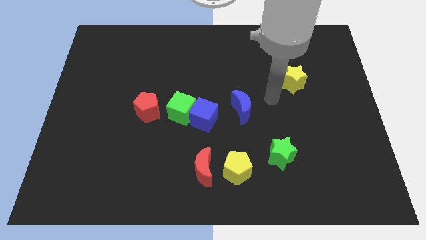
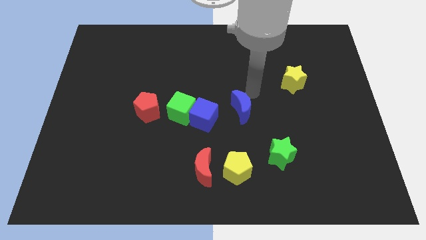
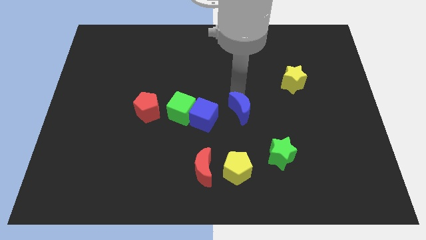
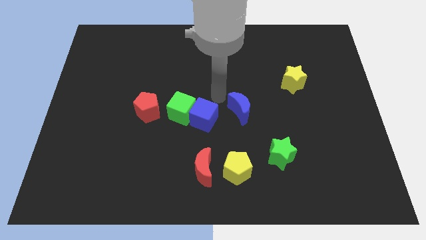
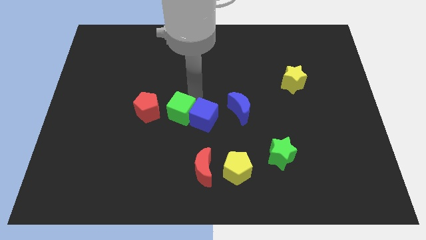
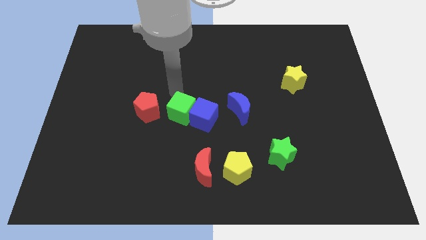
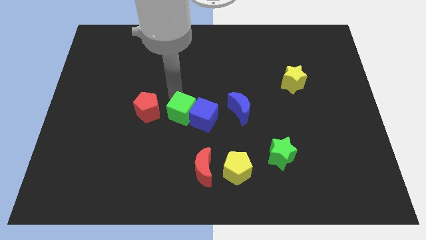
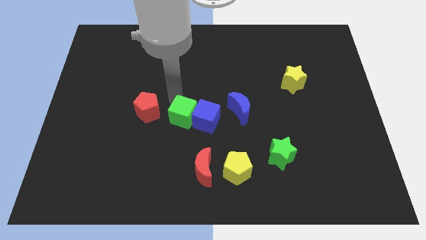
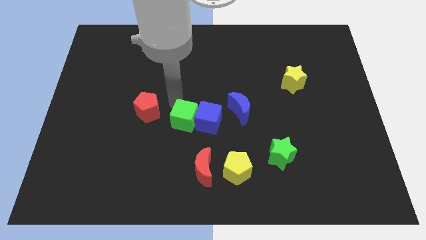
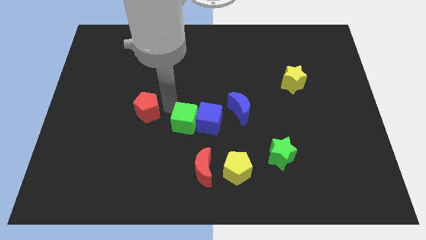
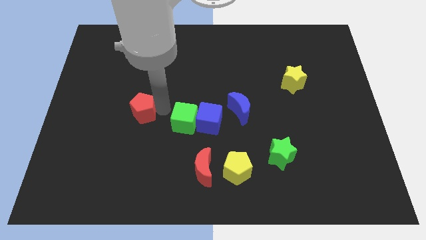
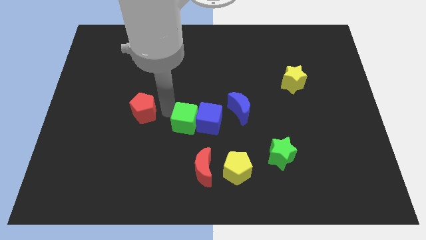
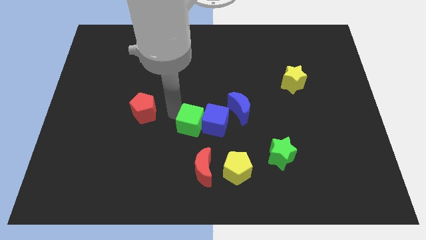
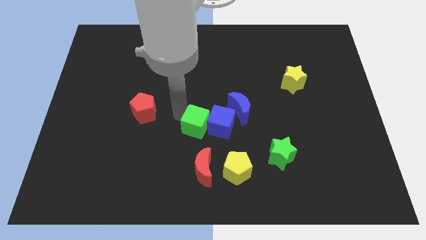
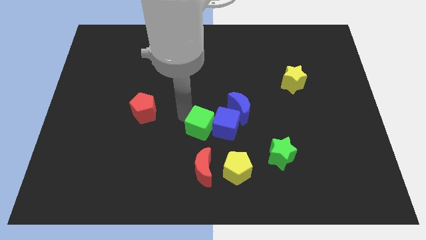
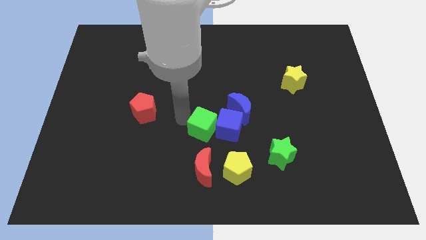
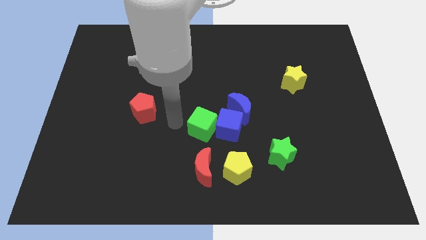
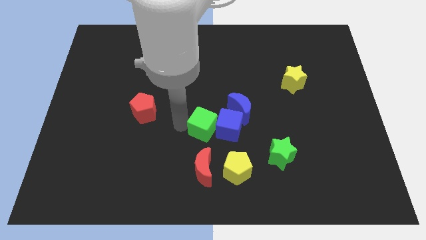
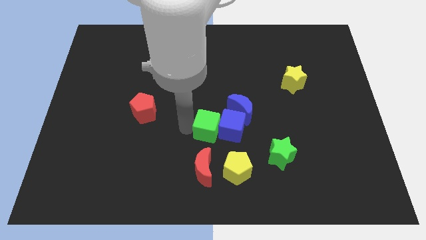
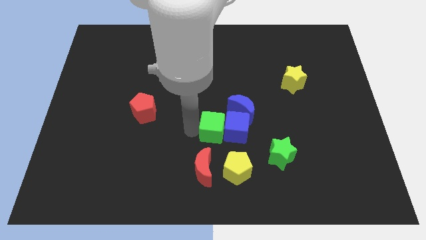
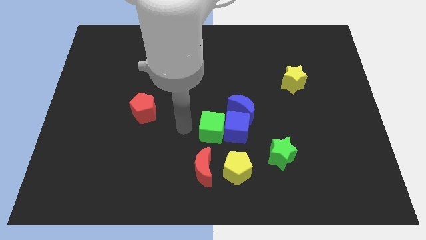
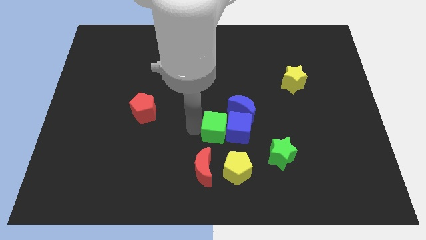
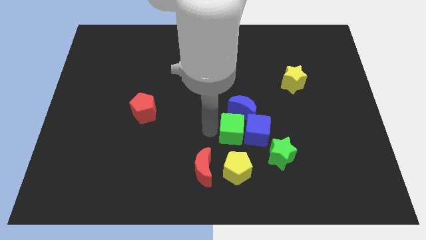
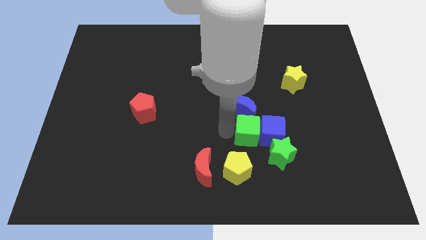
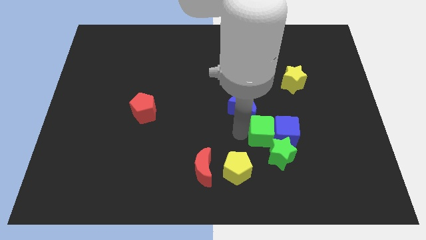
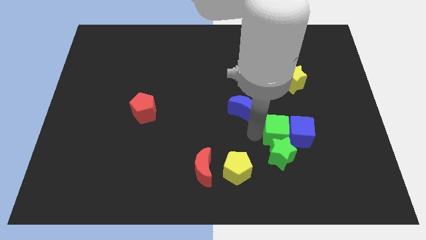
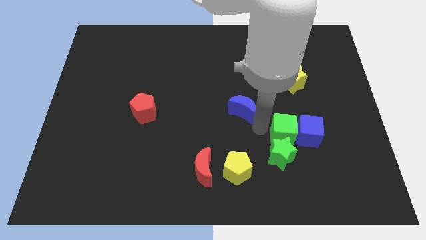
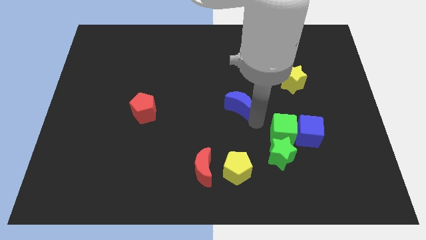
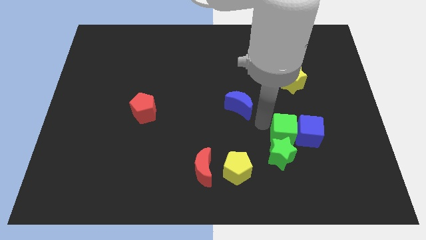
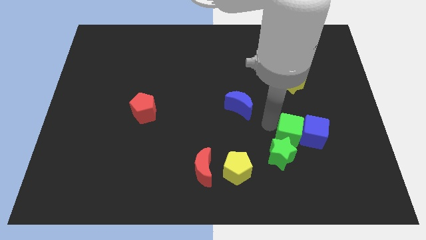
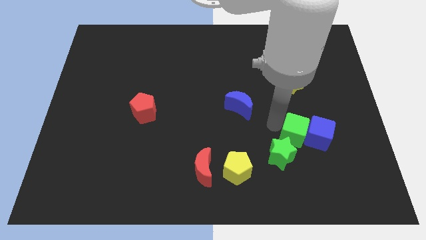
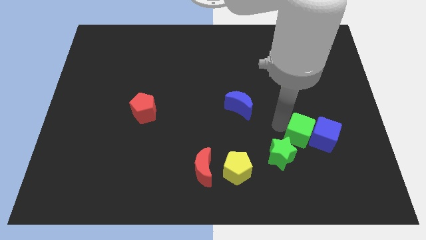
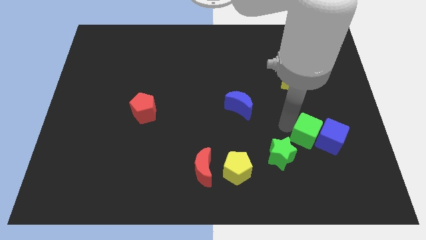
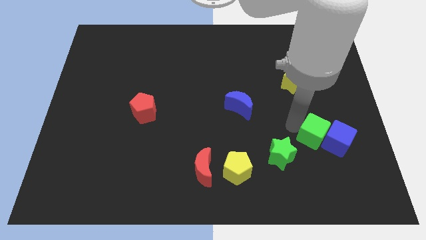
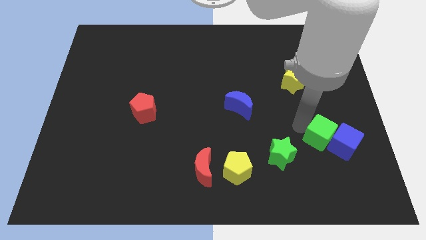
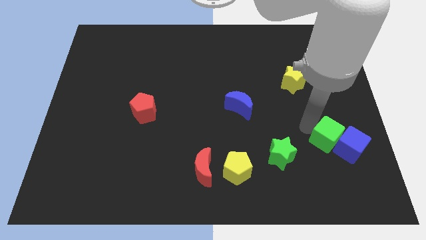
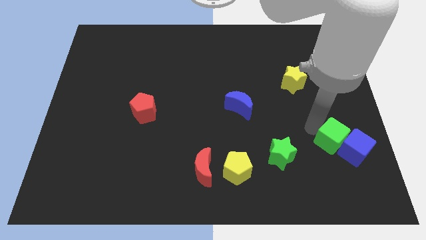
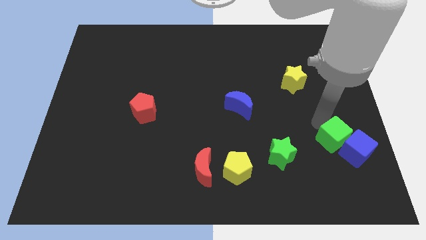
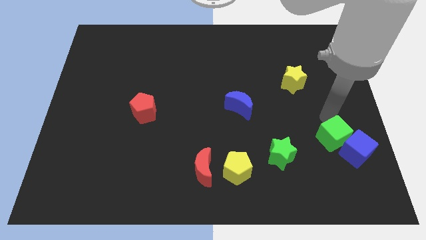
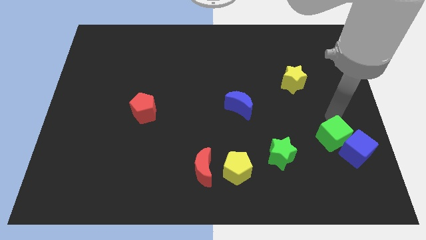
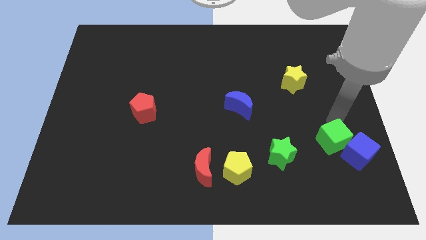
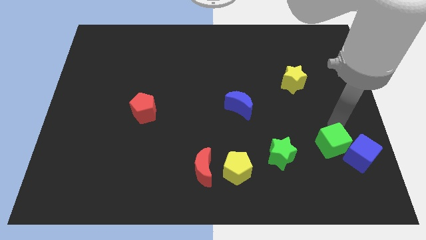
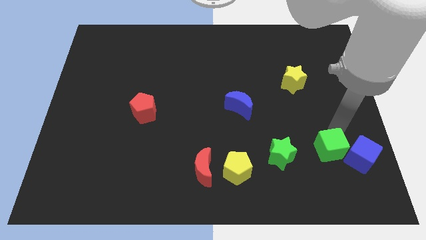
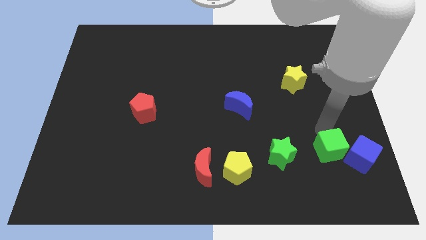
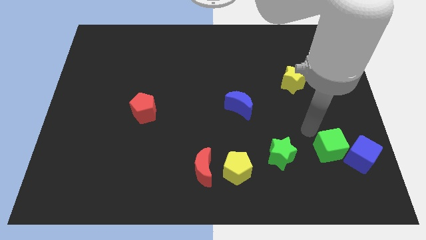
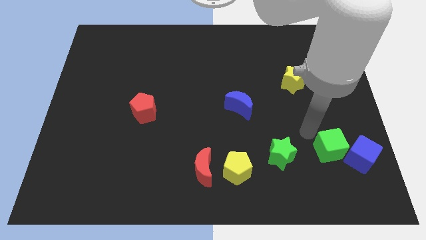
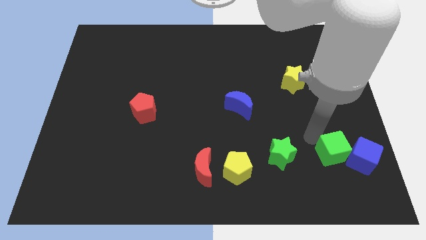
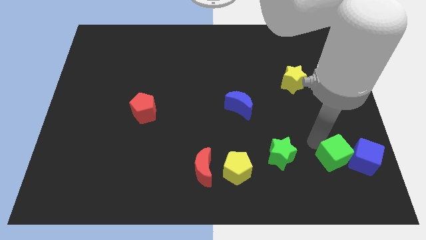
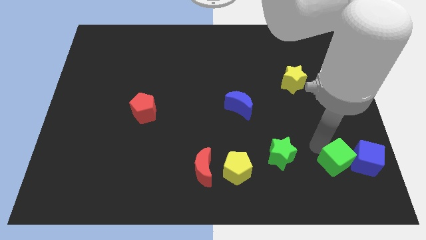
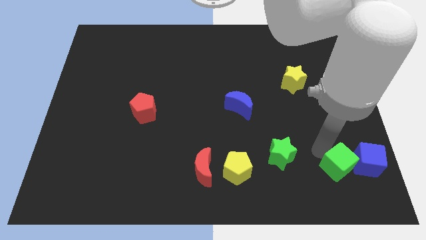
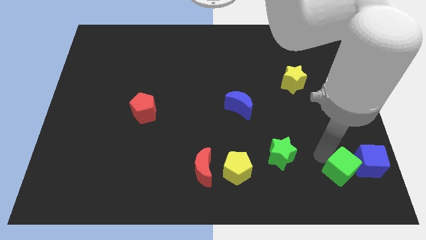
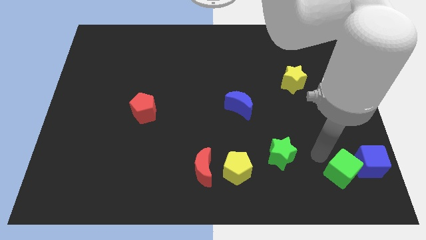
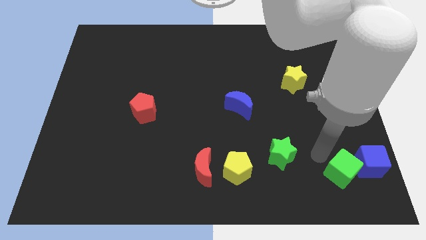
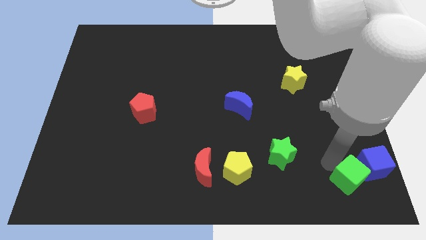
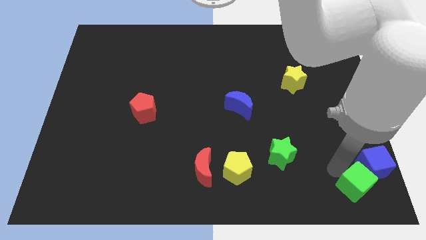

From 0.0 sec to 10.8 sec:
move the green cube to the lower right corner

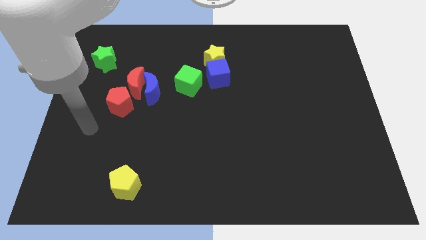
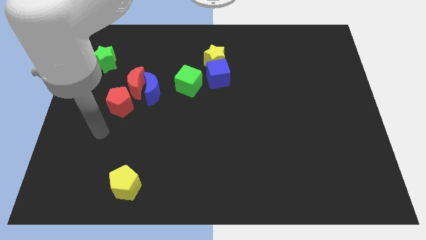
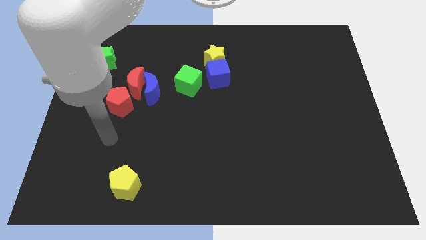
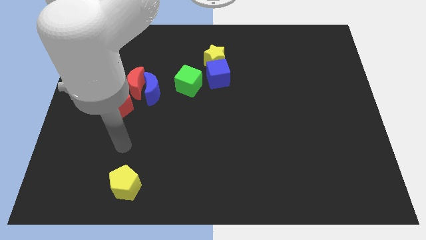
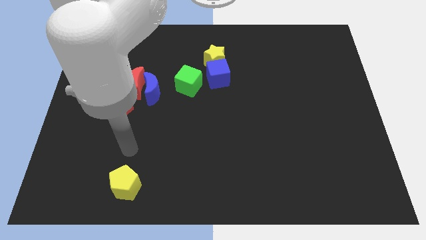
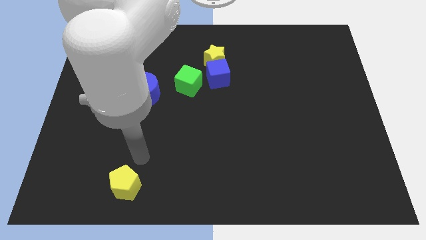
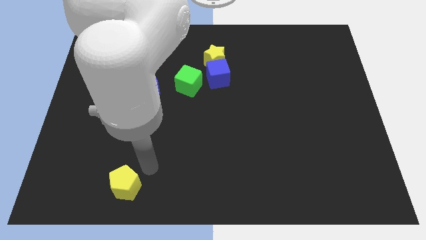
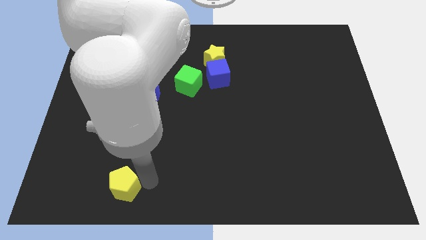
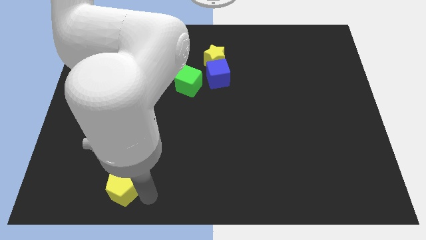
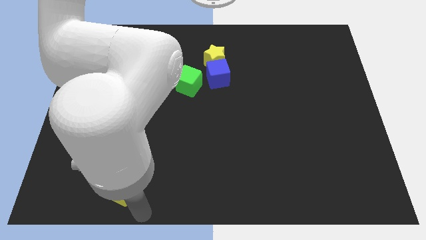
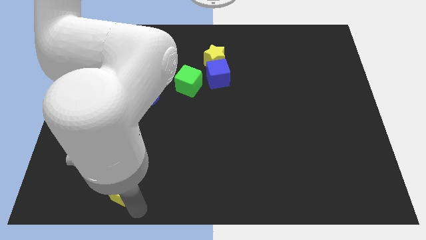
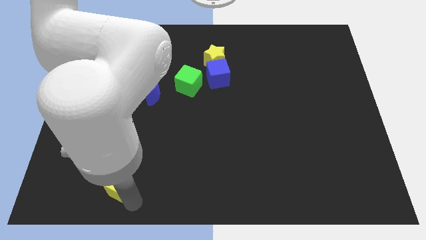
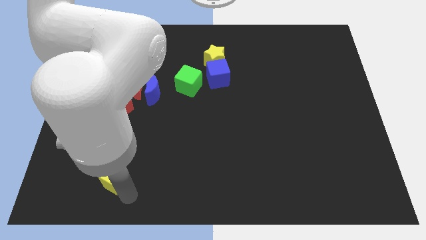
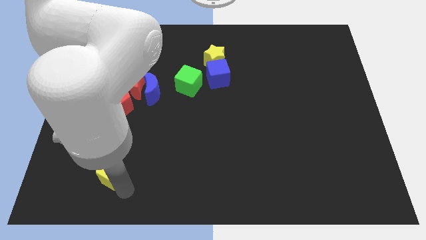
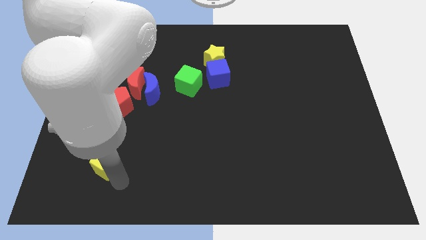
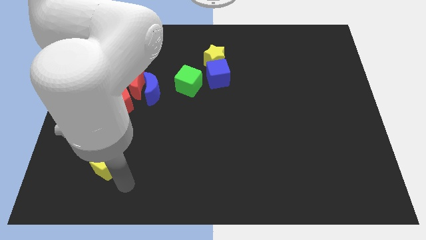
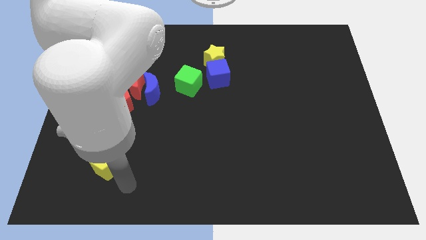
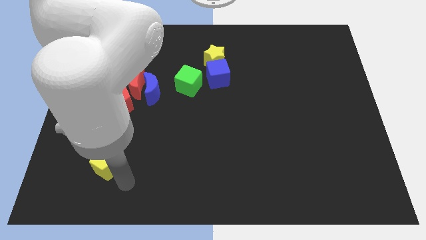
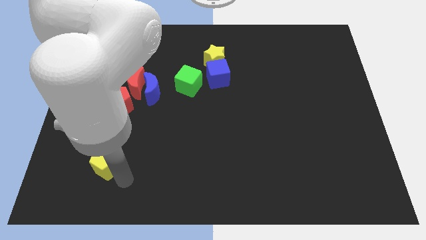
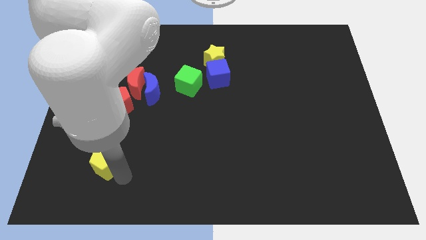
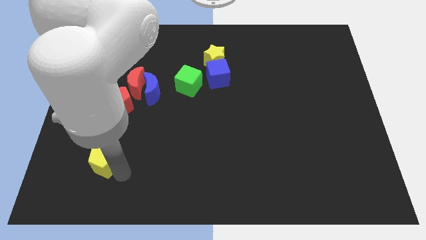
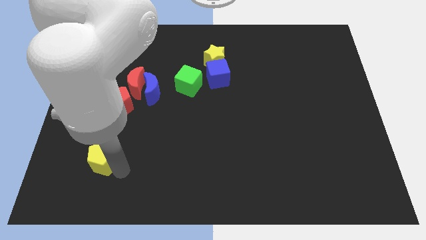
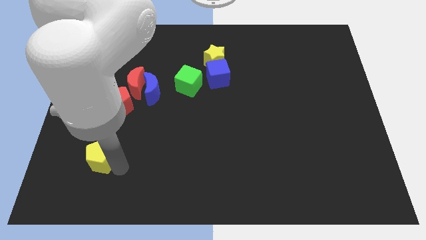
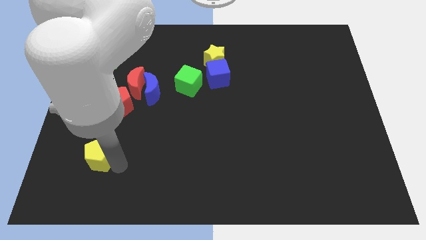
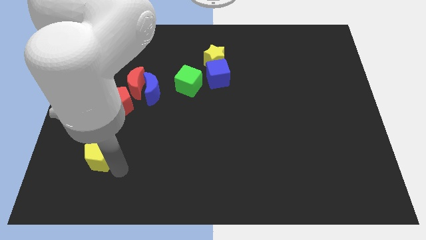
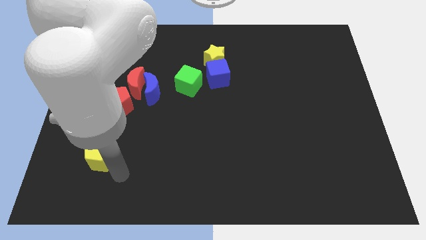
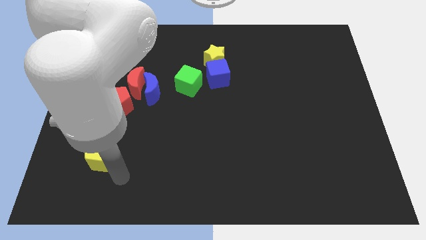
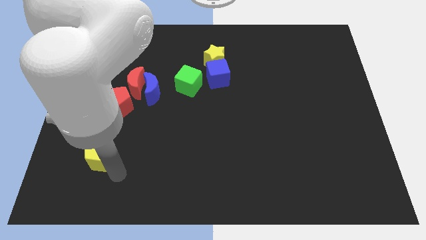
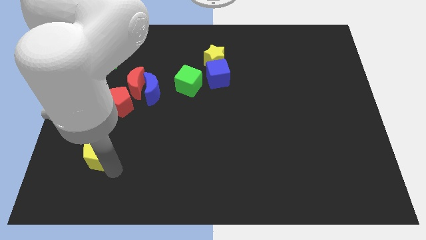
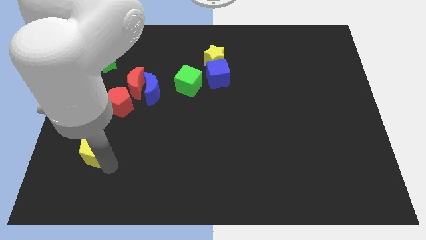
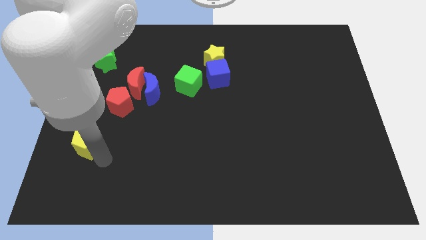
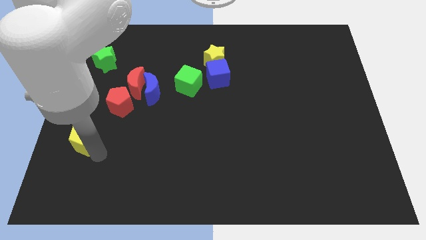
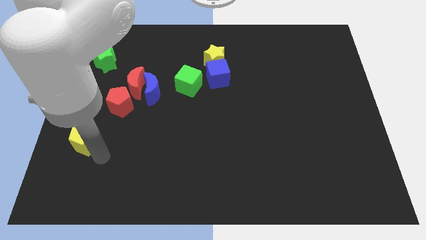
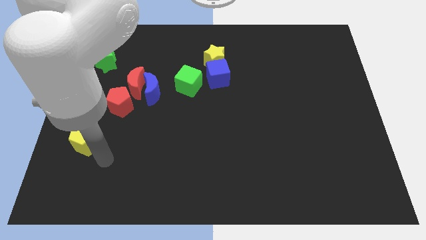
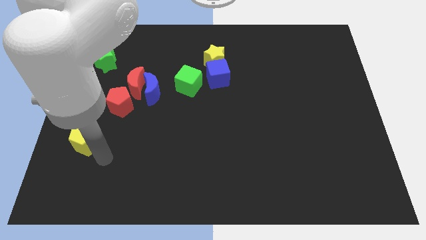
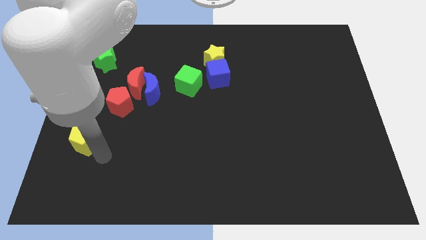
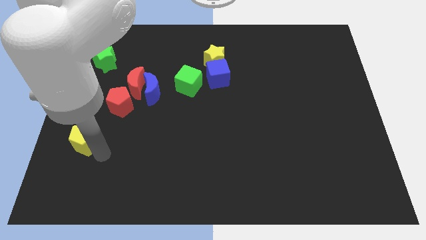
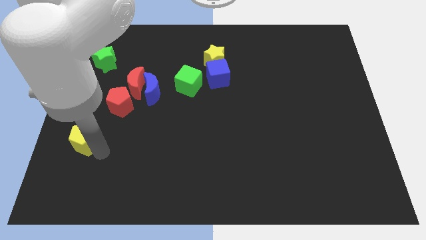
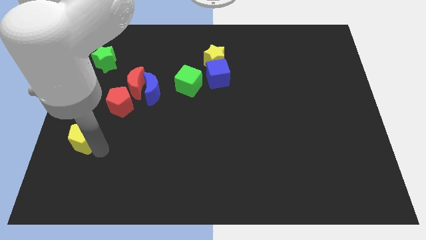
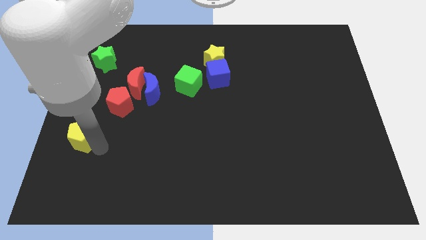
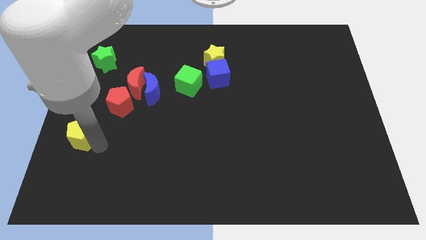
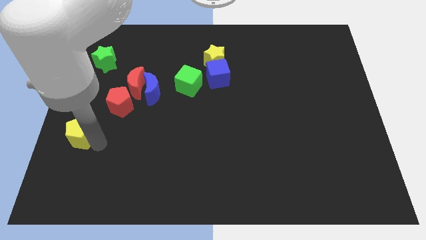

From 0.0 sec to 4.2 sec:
move the yellow pentagon to the left side of the board
